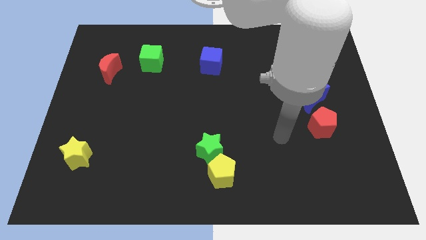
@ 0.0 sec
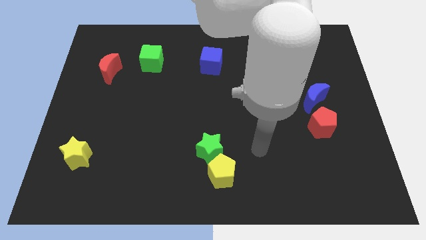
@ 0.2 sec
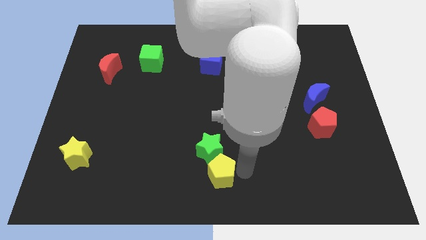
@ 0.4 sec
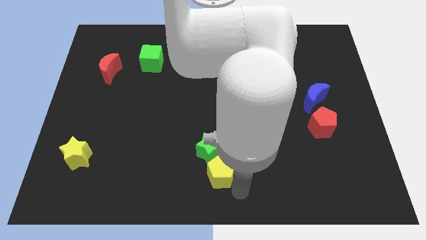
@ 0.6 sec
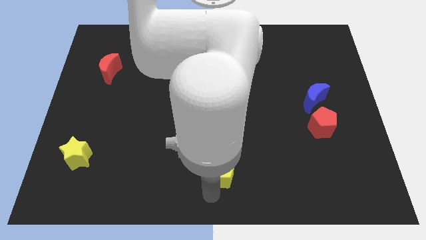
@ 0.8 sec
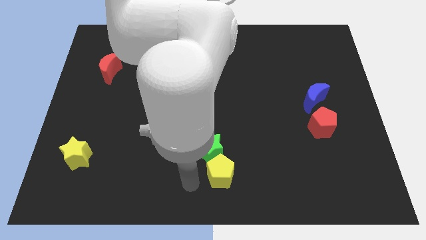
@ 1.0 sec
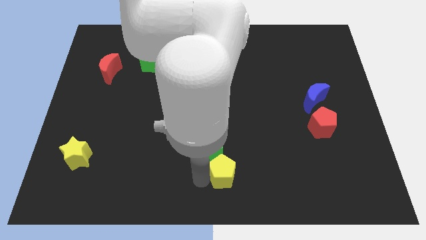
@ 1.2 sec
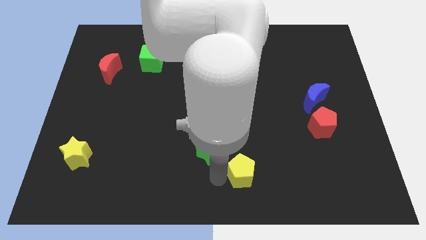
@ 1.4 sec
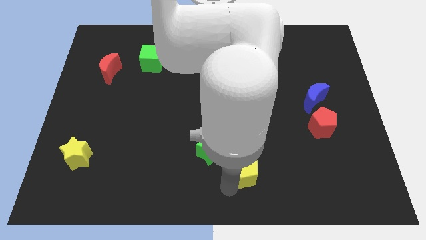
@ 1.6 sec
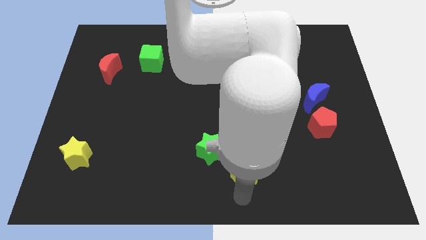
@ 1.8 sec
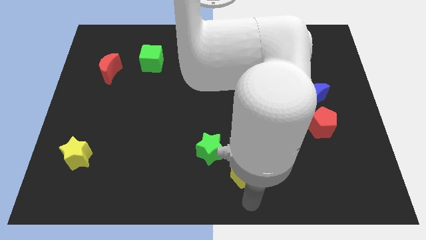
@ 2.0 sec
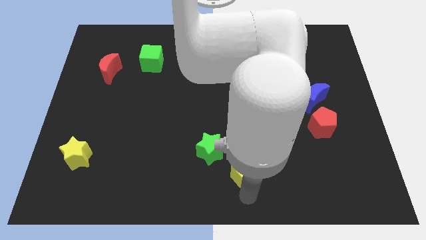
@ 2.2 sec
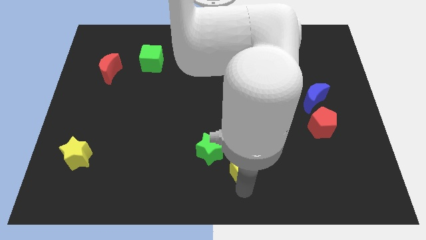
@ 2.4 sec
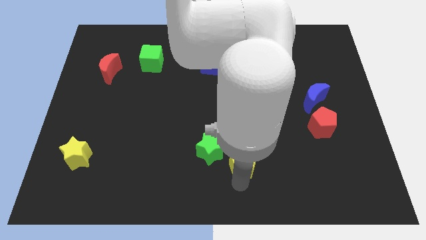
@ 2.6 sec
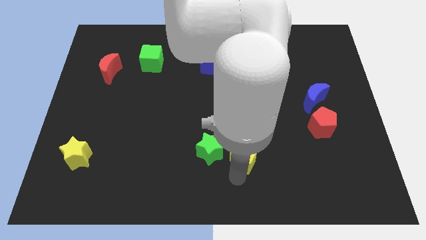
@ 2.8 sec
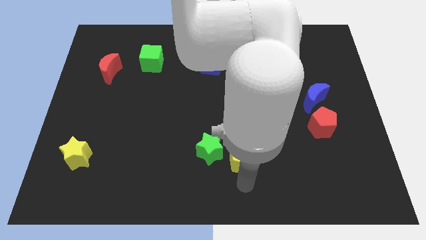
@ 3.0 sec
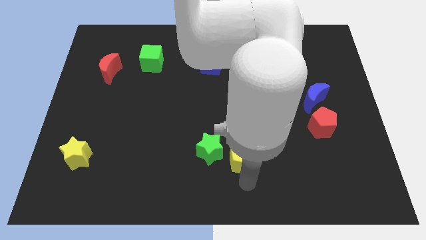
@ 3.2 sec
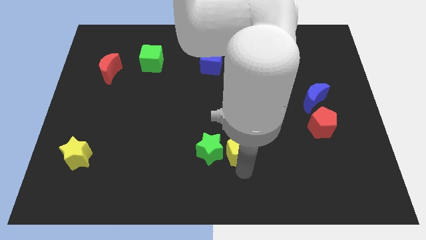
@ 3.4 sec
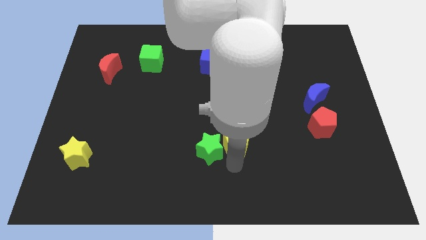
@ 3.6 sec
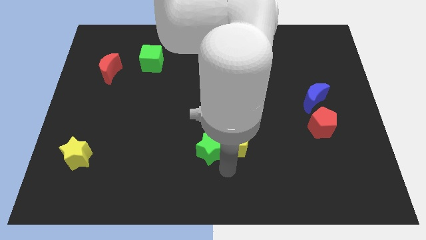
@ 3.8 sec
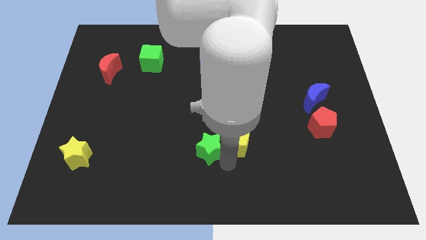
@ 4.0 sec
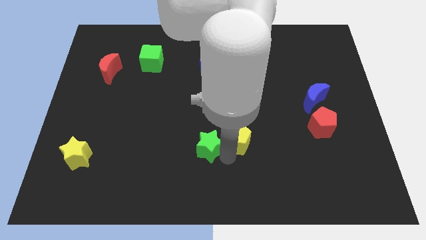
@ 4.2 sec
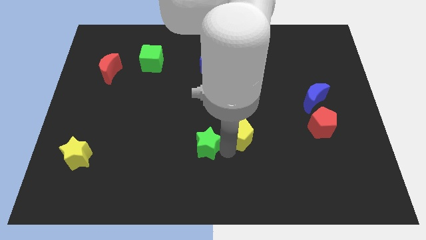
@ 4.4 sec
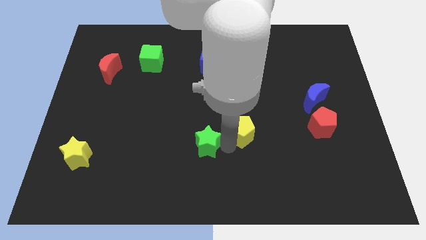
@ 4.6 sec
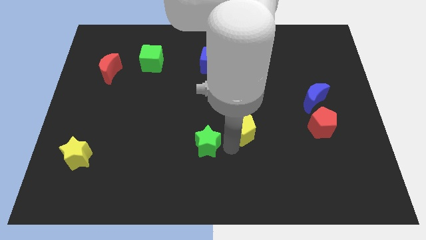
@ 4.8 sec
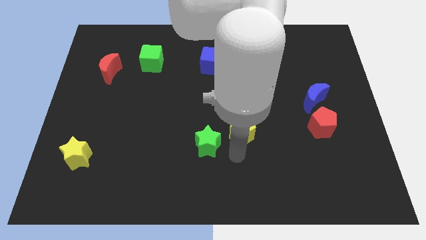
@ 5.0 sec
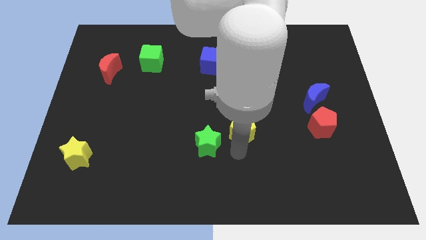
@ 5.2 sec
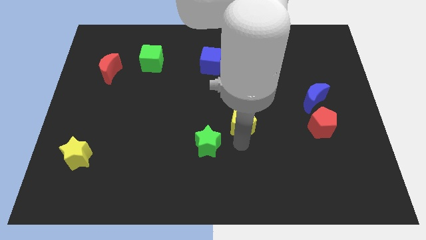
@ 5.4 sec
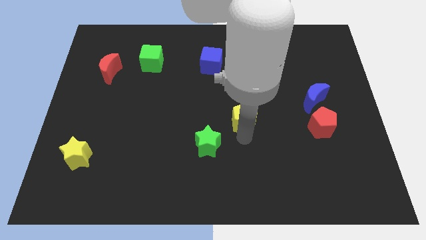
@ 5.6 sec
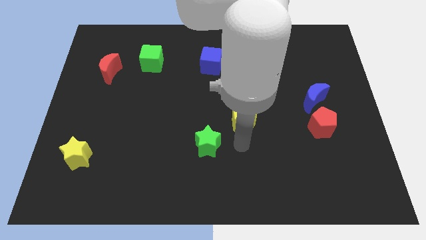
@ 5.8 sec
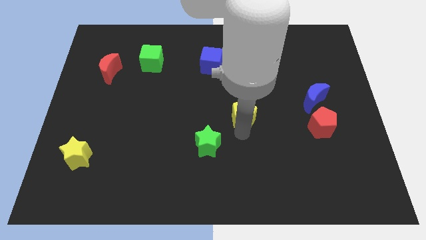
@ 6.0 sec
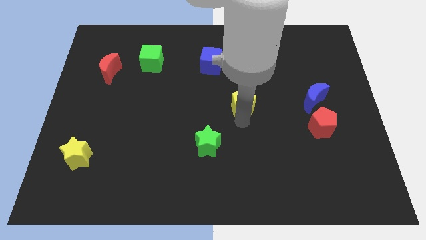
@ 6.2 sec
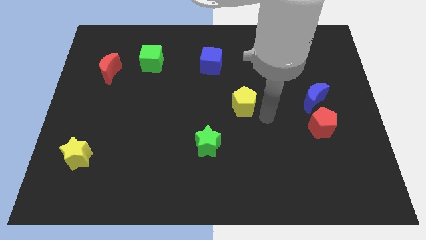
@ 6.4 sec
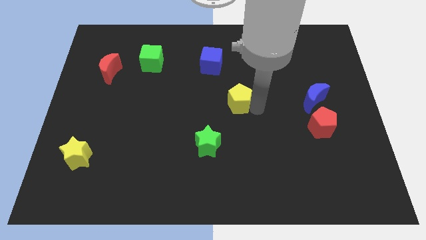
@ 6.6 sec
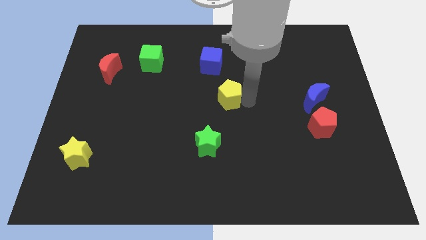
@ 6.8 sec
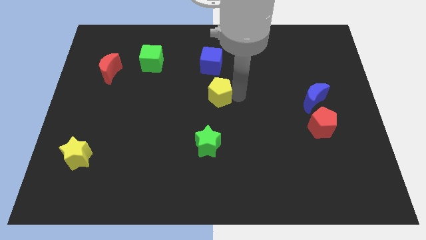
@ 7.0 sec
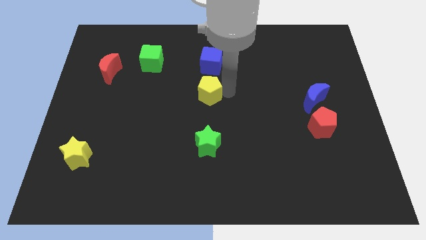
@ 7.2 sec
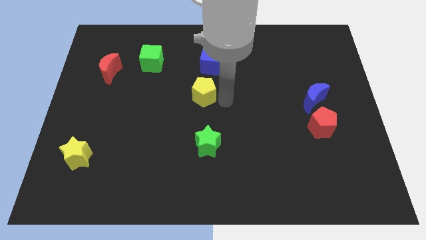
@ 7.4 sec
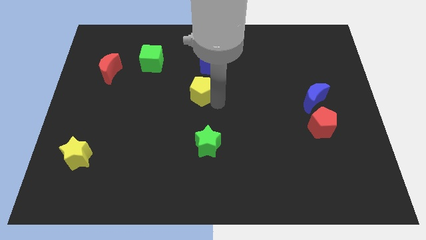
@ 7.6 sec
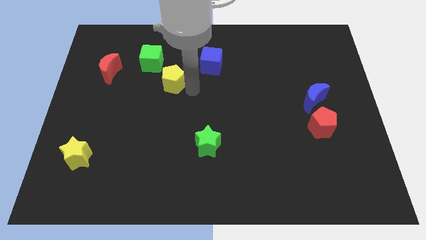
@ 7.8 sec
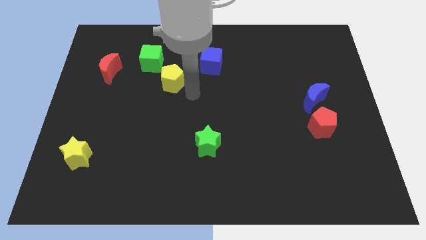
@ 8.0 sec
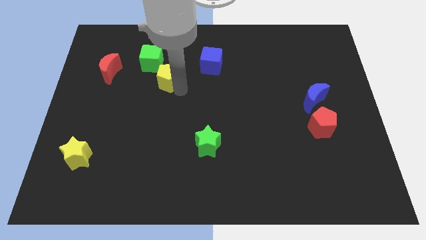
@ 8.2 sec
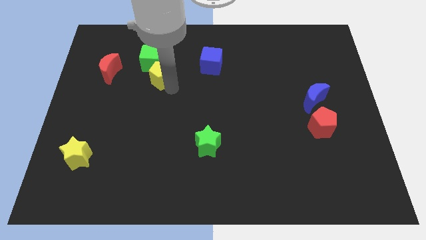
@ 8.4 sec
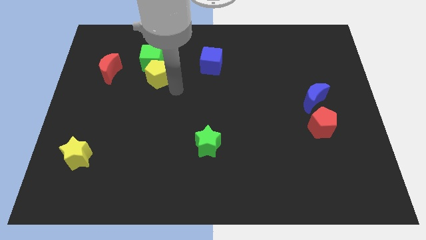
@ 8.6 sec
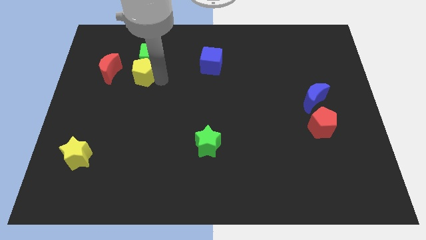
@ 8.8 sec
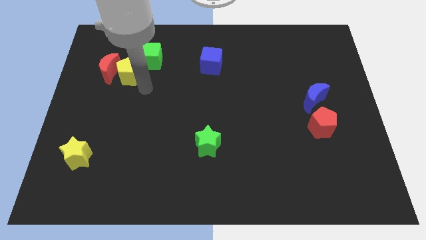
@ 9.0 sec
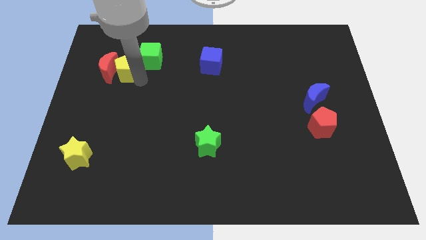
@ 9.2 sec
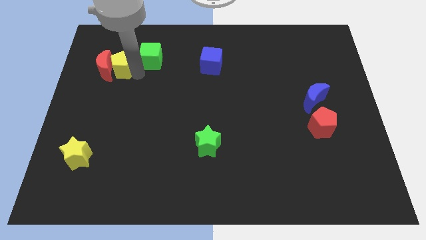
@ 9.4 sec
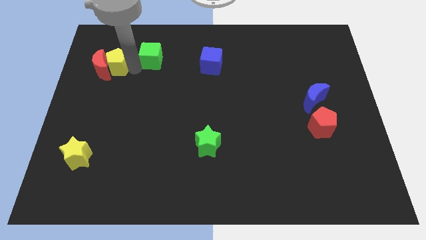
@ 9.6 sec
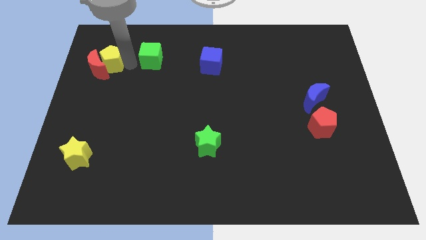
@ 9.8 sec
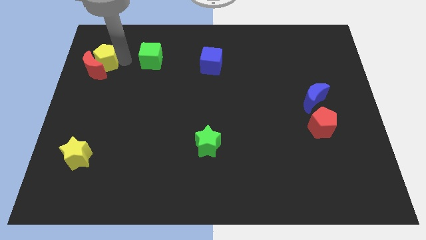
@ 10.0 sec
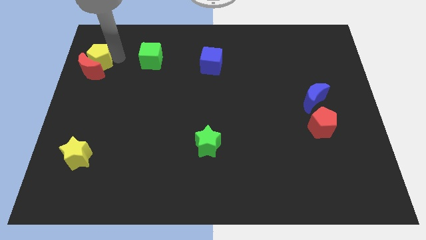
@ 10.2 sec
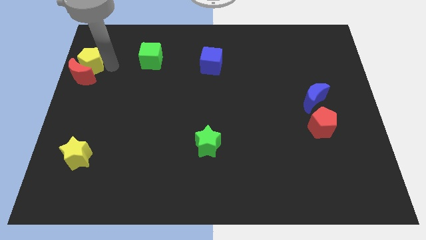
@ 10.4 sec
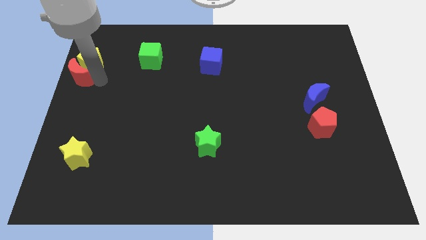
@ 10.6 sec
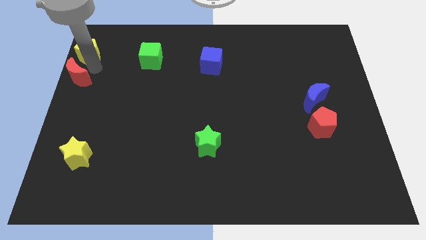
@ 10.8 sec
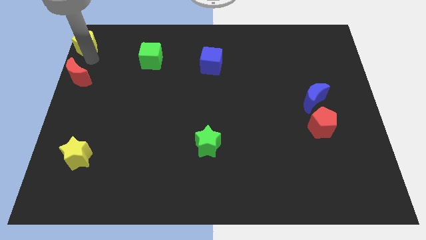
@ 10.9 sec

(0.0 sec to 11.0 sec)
put the yellow pentagon to the upper left corner
